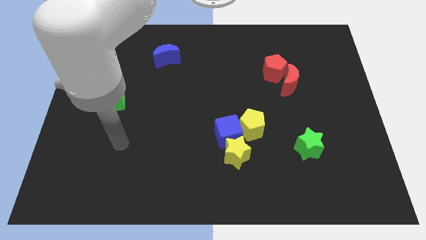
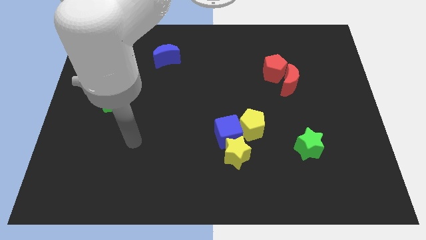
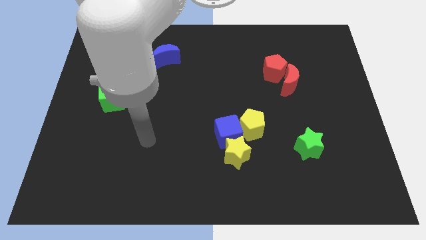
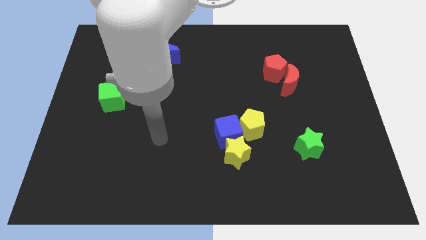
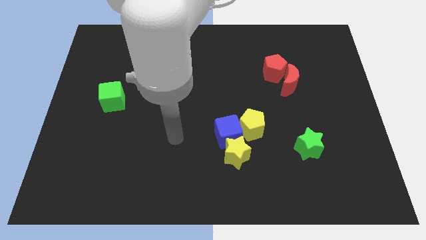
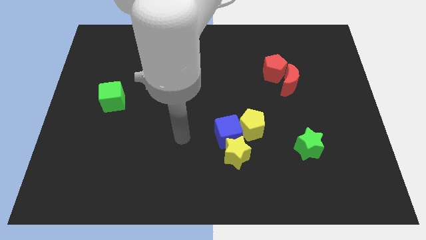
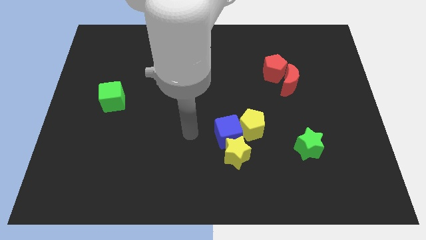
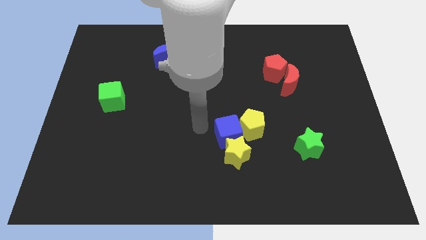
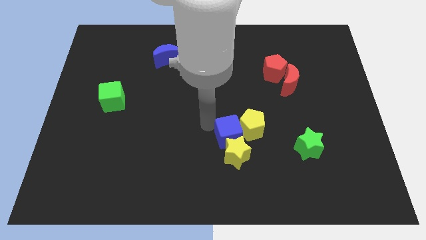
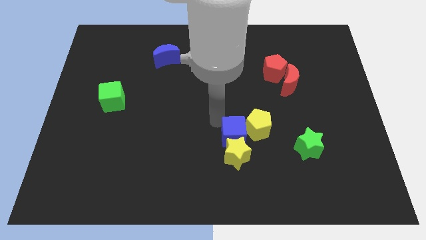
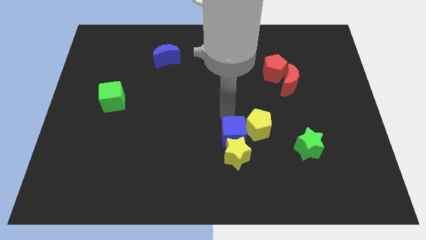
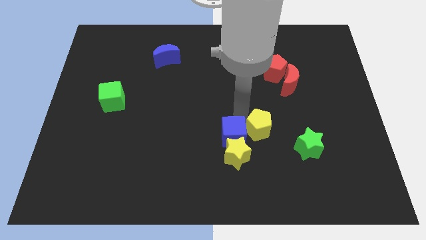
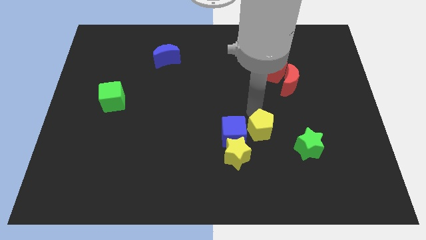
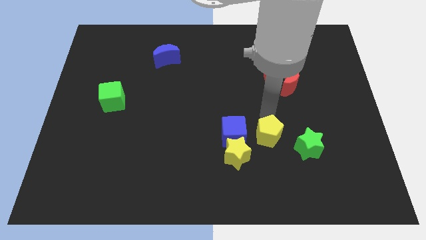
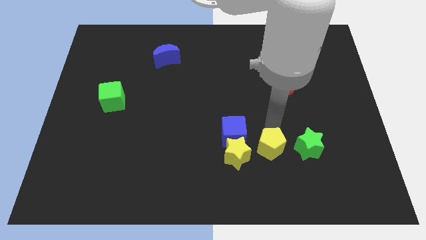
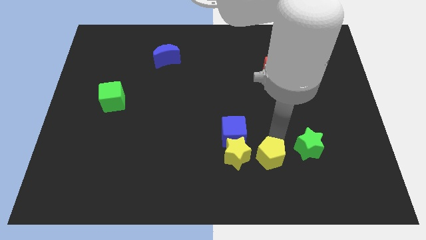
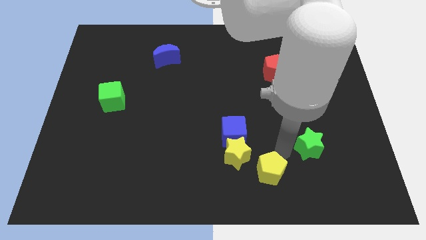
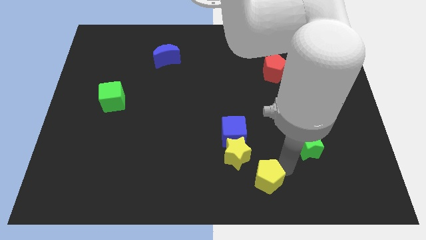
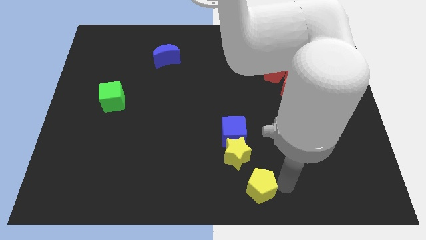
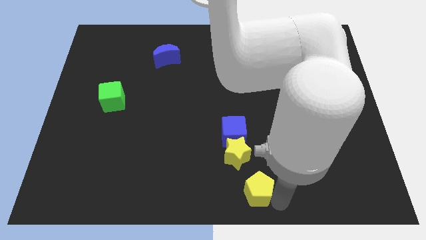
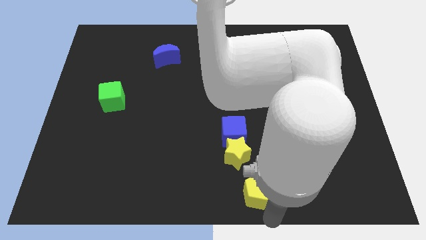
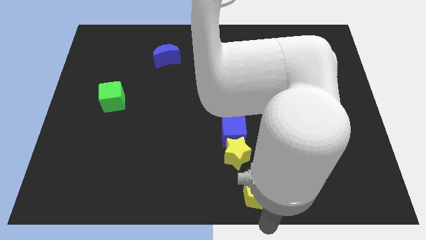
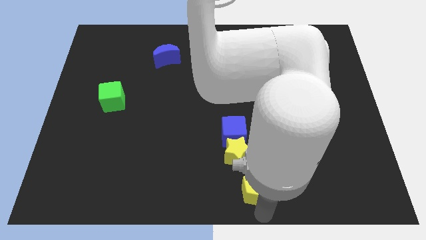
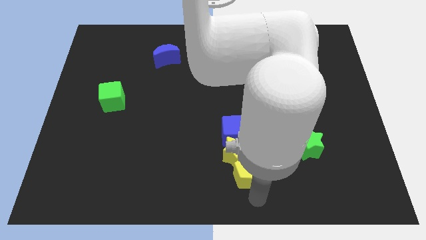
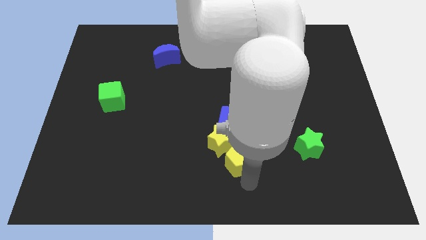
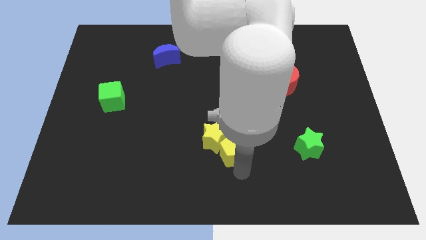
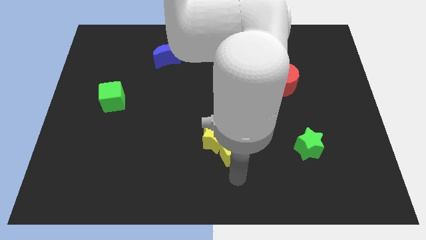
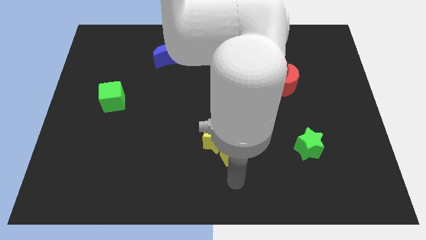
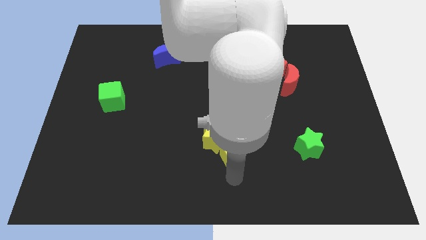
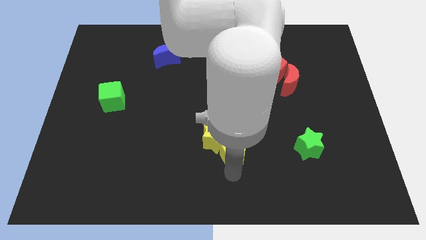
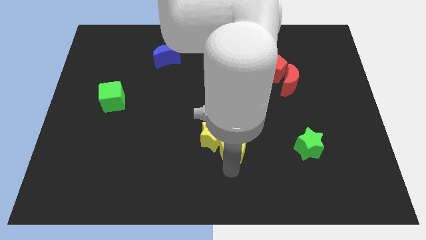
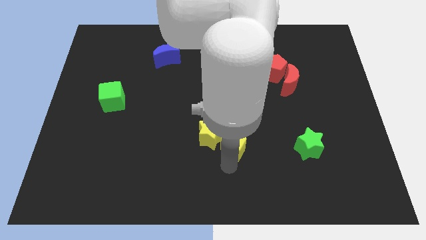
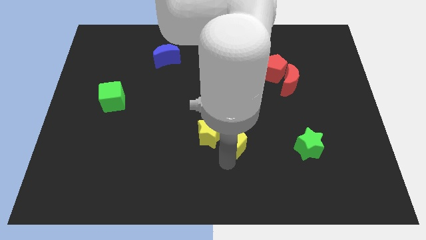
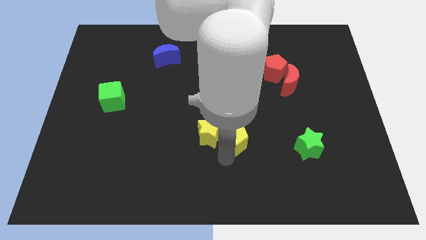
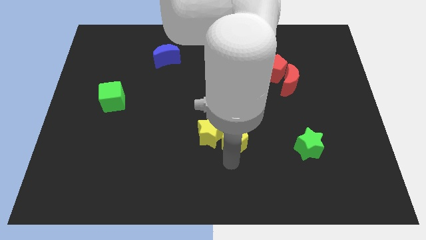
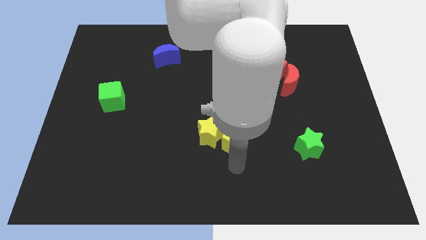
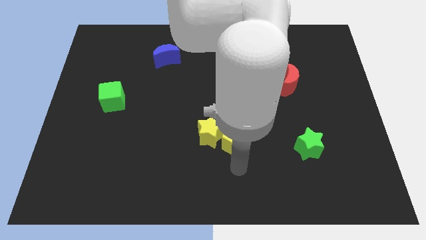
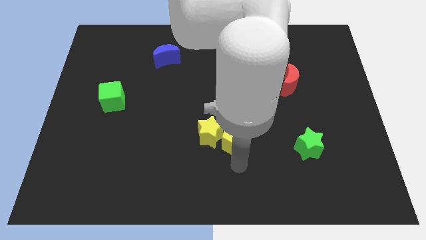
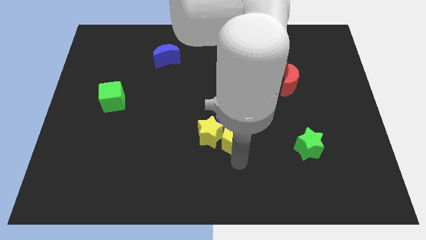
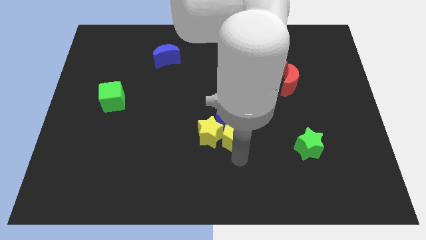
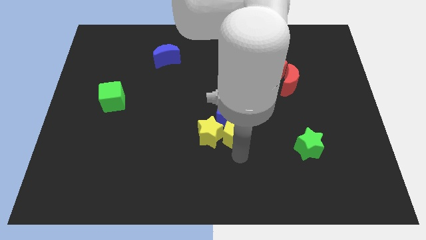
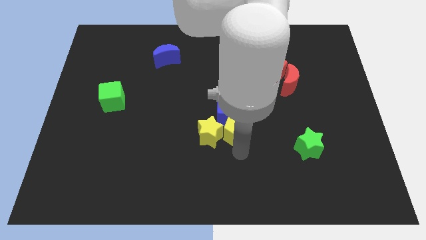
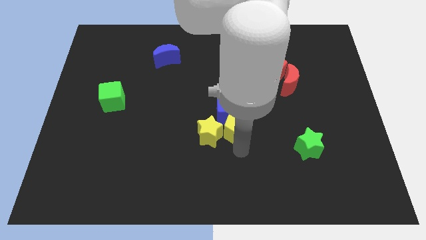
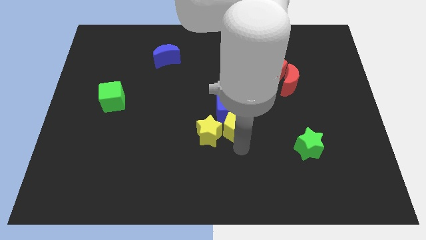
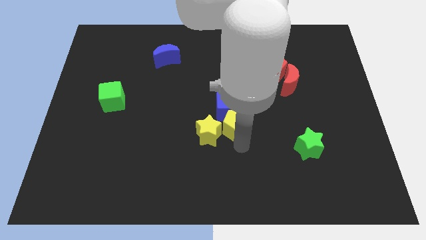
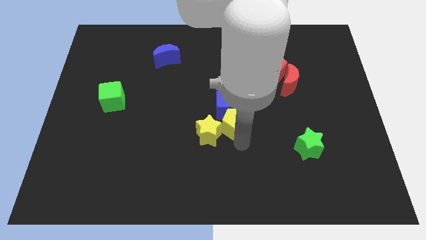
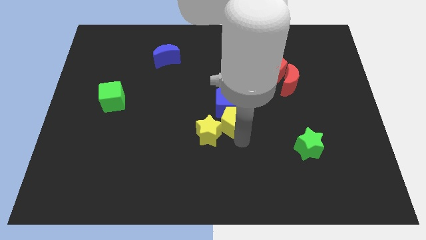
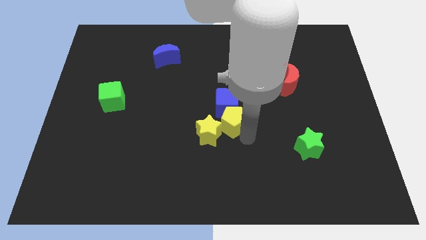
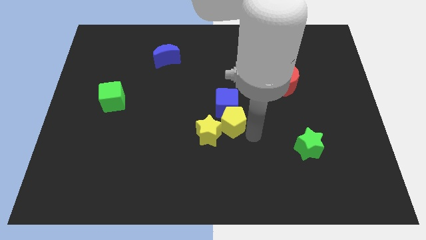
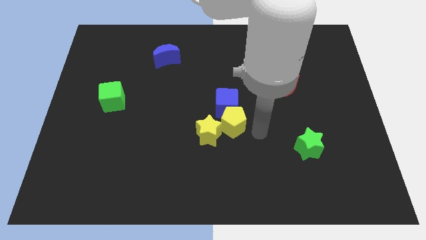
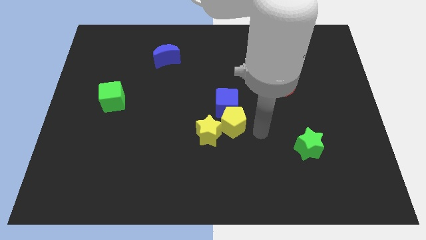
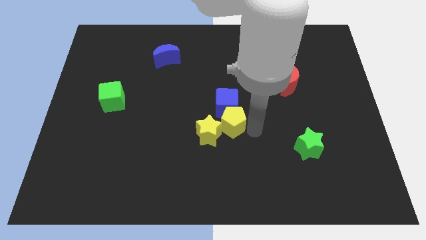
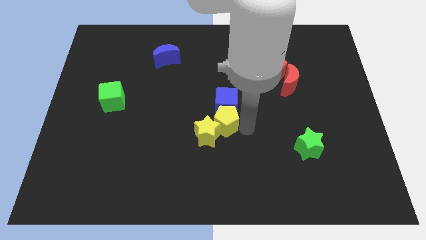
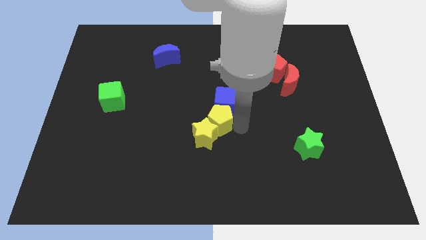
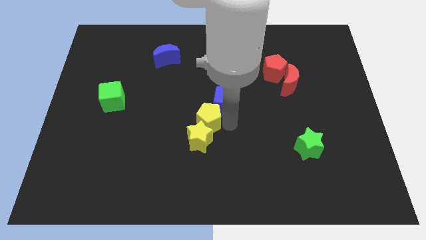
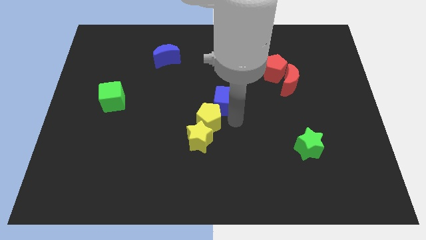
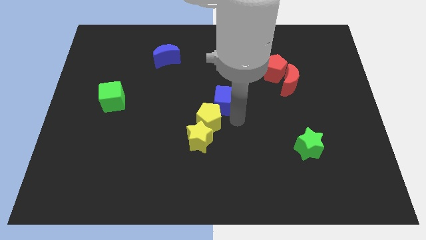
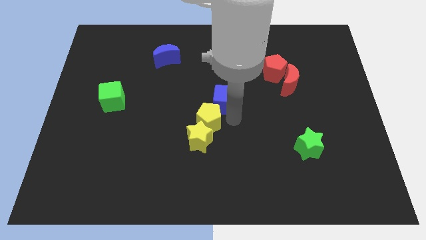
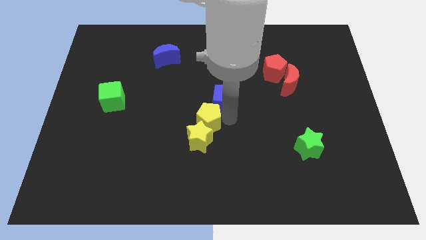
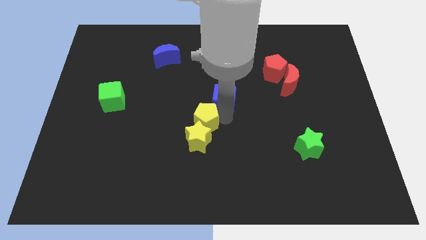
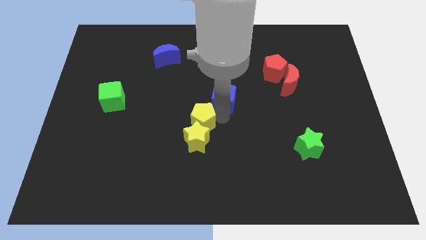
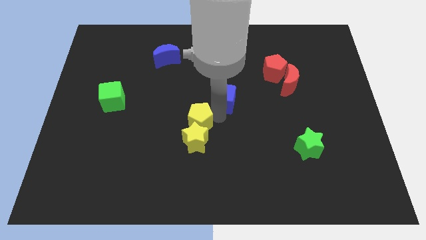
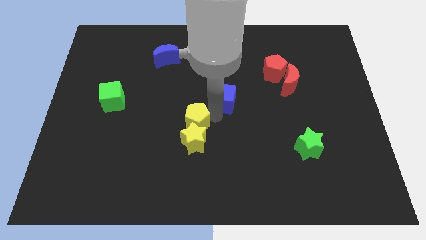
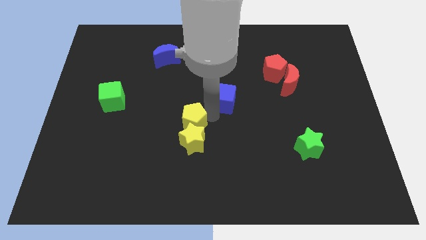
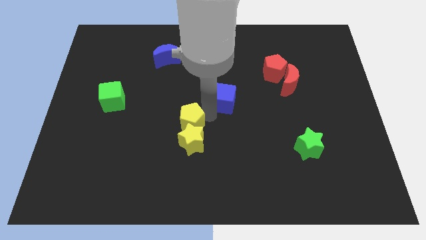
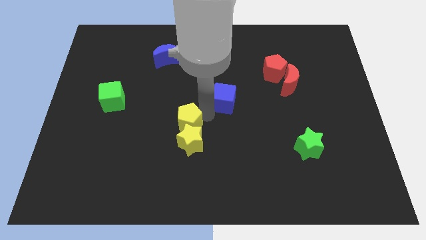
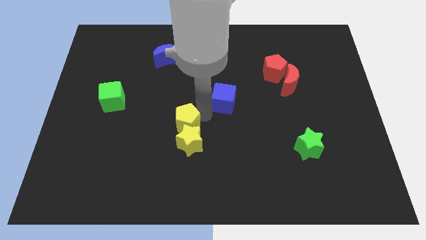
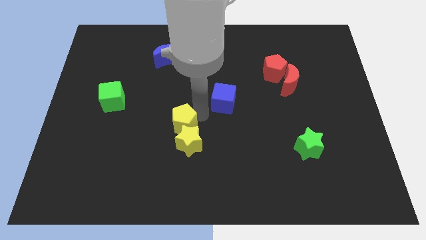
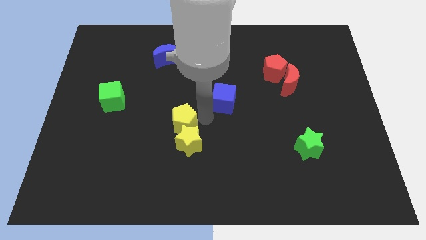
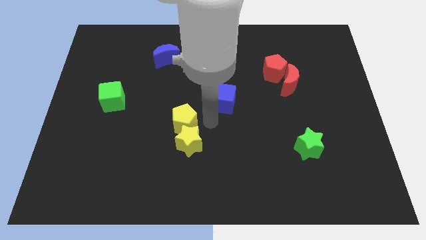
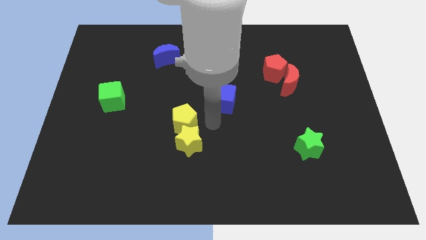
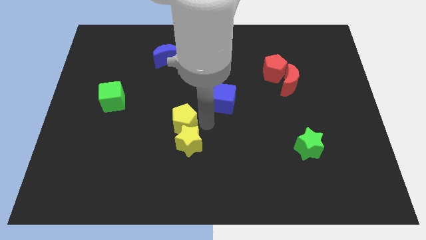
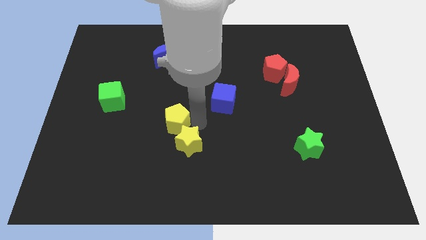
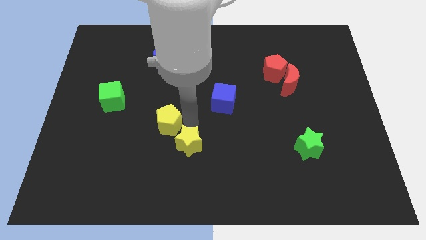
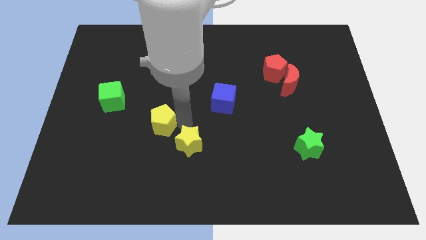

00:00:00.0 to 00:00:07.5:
slide the yellow pentagon to the left

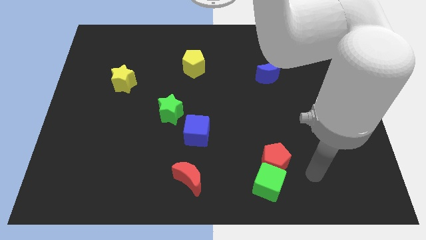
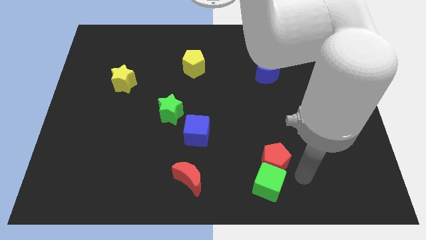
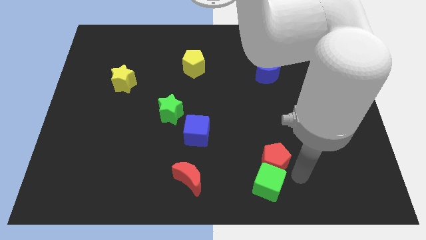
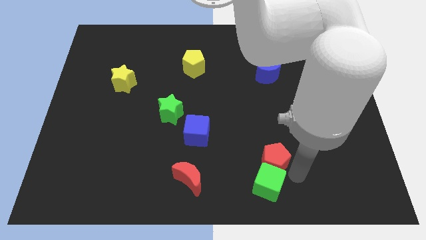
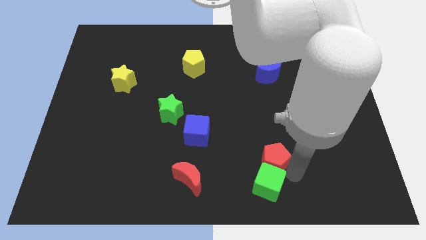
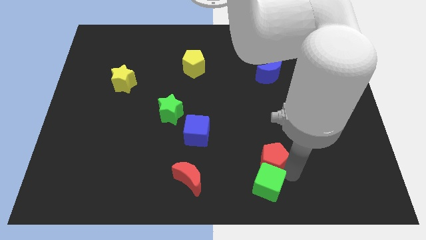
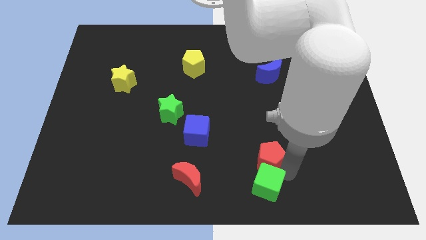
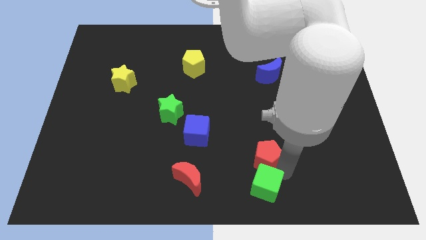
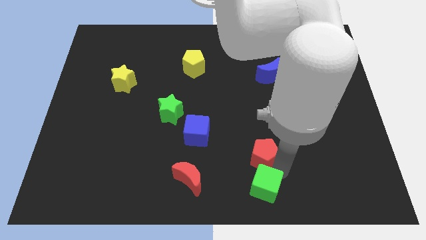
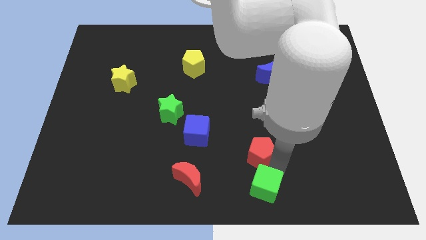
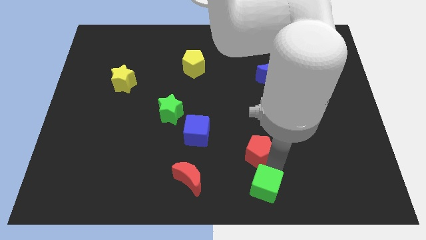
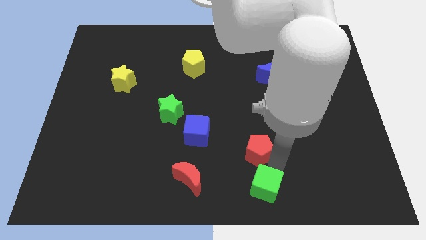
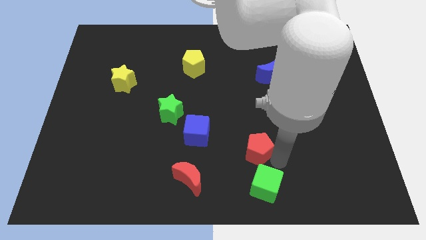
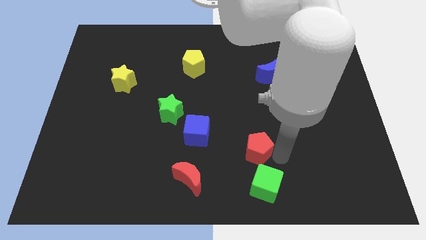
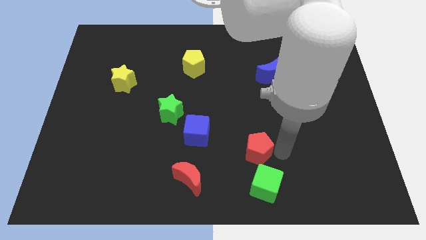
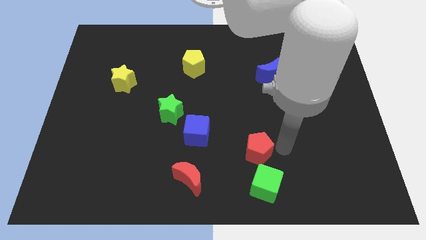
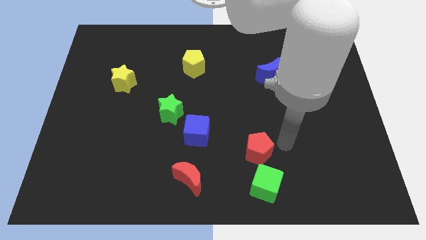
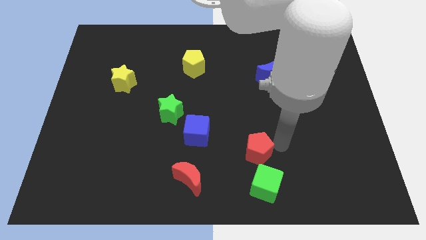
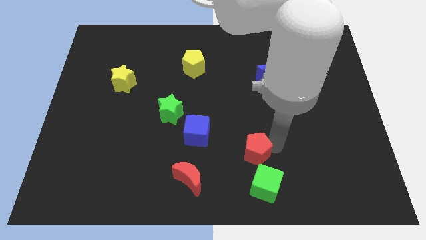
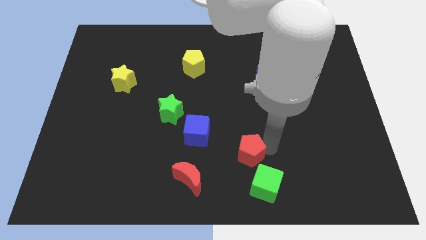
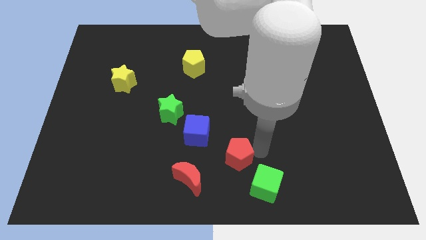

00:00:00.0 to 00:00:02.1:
push the red pentagon a little left
